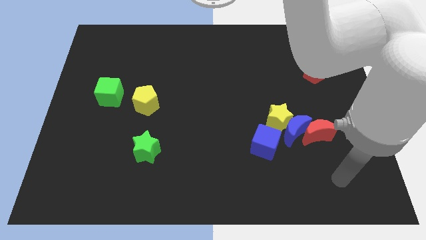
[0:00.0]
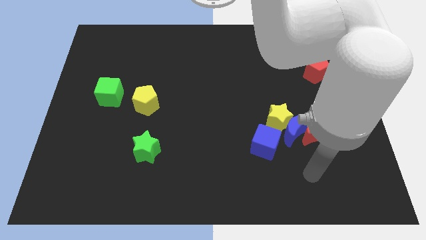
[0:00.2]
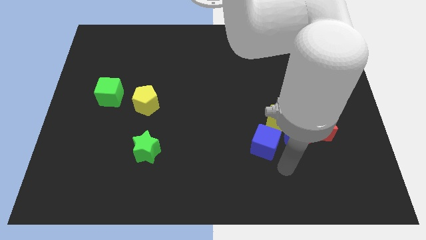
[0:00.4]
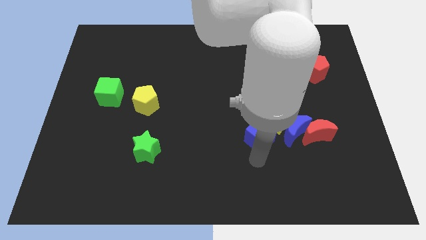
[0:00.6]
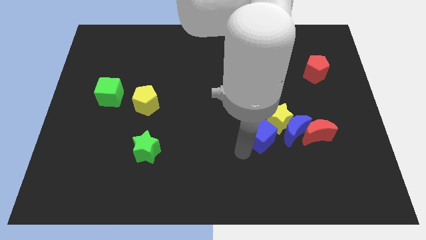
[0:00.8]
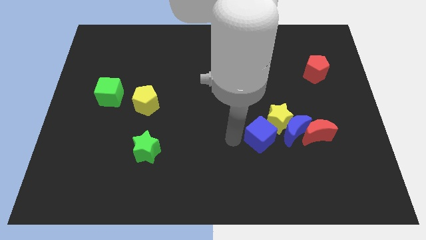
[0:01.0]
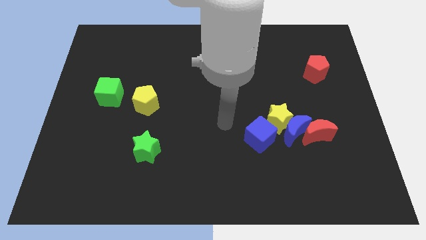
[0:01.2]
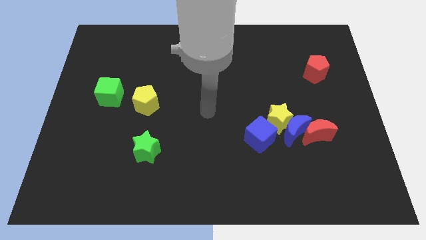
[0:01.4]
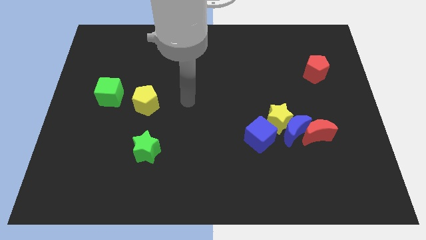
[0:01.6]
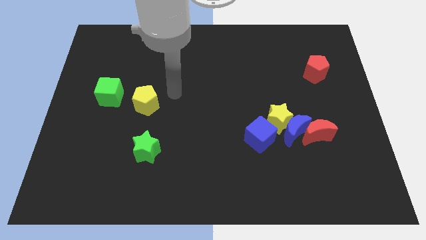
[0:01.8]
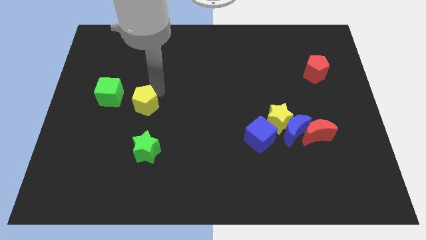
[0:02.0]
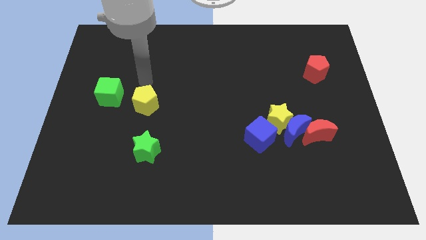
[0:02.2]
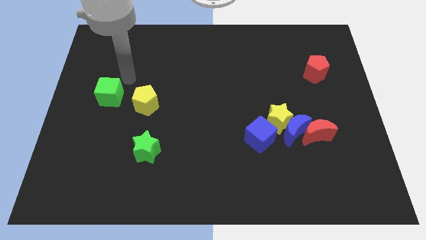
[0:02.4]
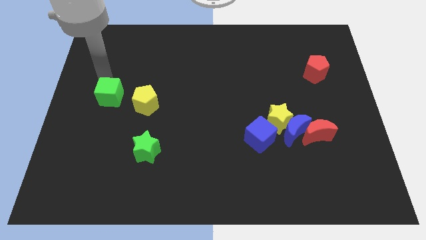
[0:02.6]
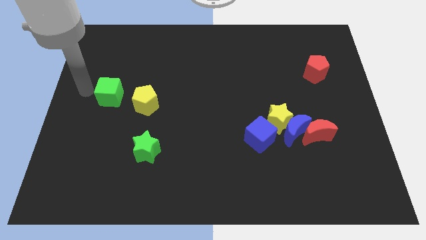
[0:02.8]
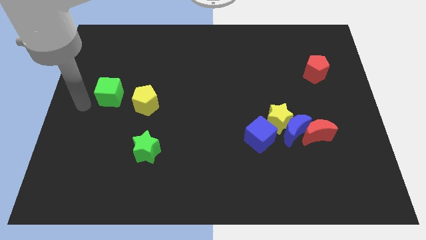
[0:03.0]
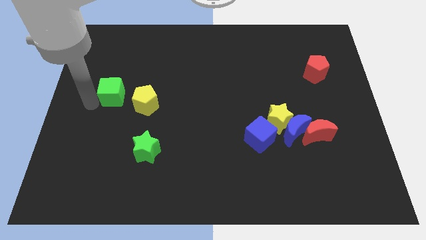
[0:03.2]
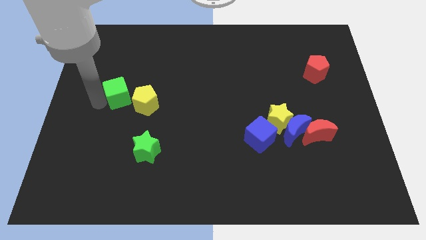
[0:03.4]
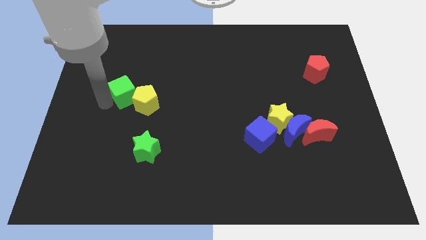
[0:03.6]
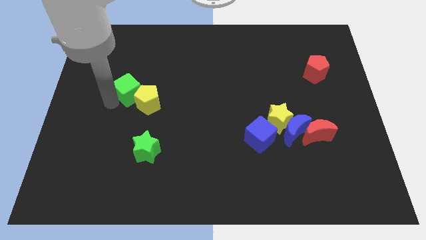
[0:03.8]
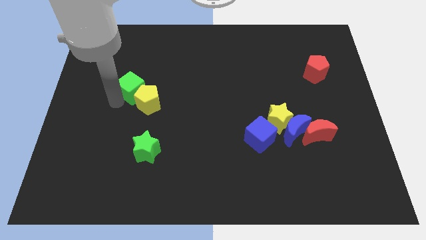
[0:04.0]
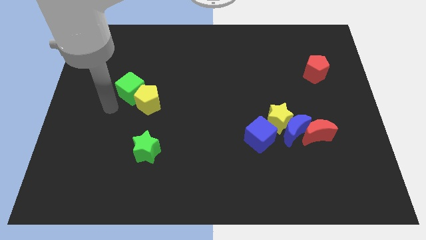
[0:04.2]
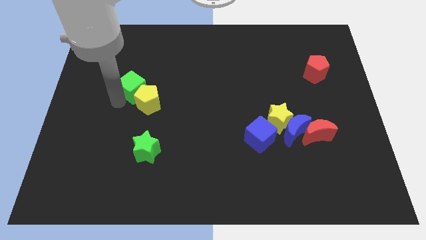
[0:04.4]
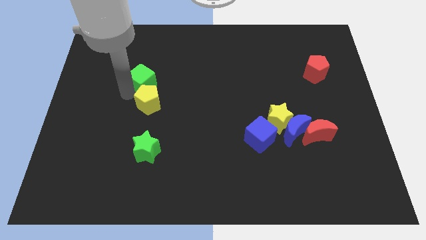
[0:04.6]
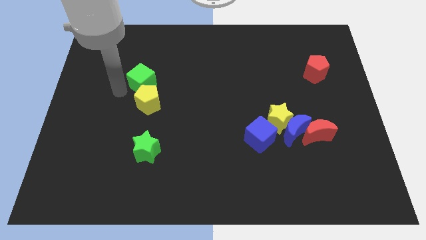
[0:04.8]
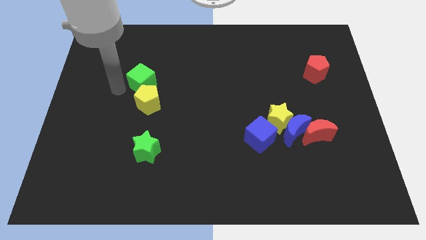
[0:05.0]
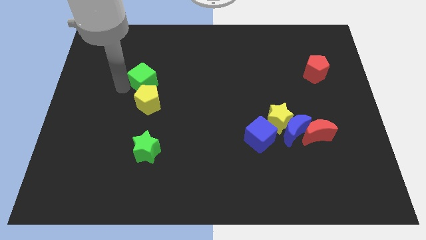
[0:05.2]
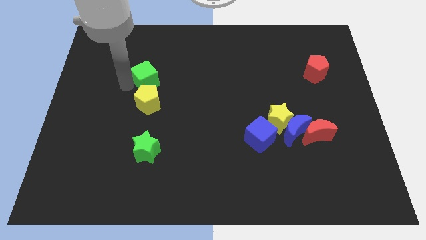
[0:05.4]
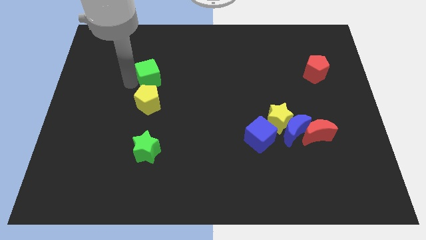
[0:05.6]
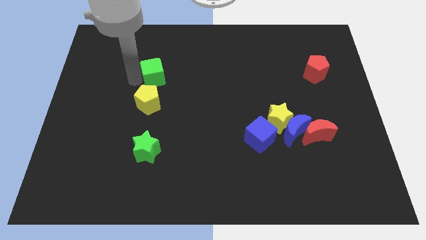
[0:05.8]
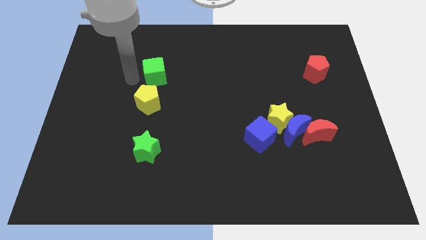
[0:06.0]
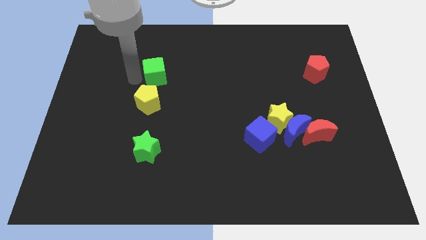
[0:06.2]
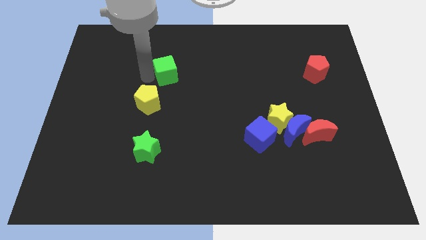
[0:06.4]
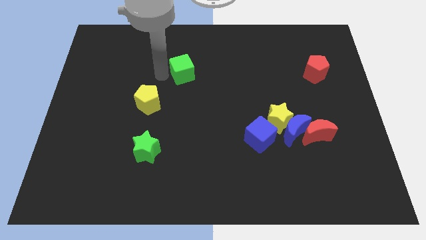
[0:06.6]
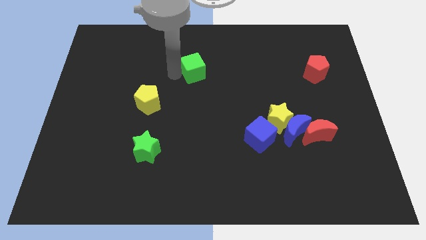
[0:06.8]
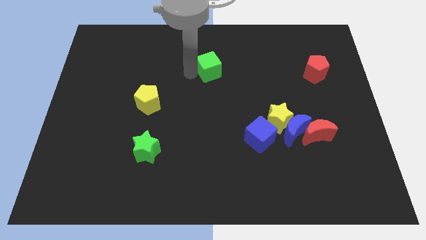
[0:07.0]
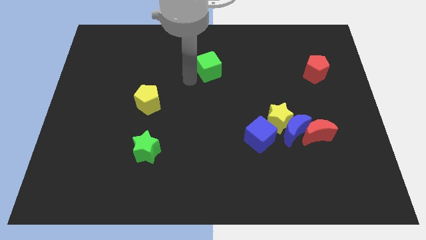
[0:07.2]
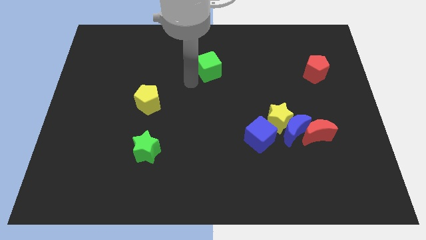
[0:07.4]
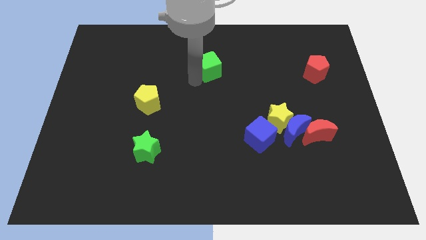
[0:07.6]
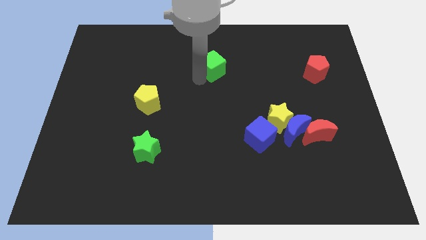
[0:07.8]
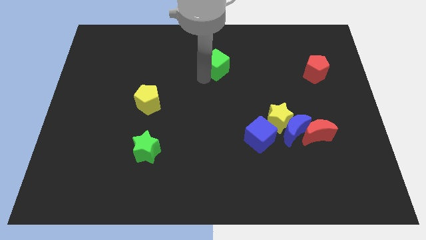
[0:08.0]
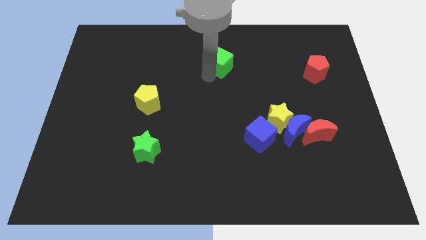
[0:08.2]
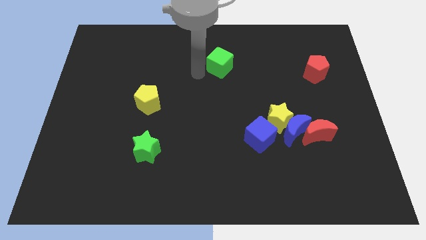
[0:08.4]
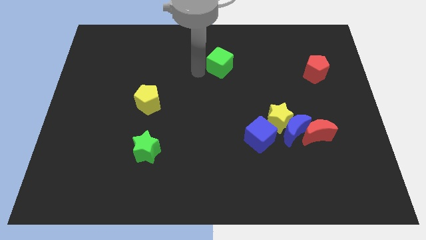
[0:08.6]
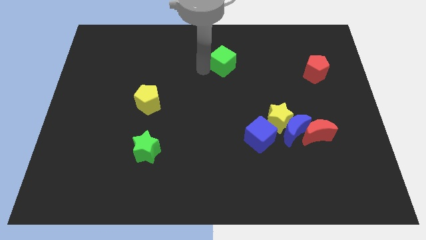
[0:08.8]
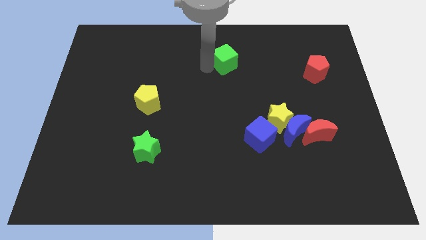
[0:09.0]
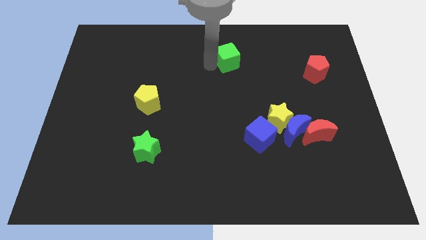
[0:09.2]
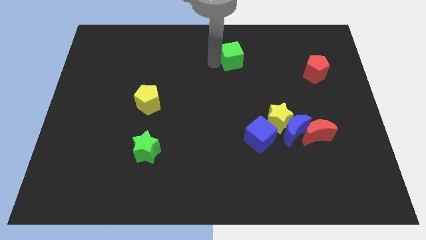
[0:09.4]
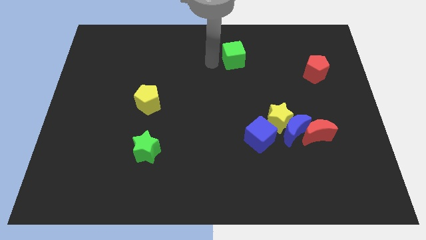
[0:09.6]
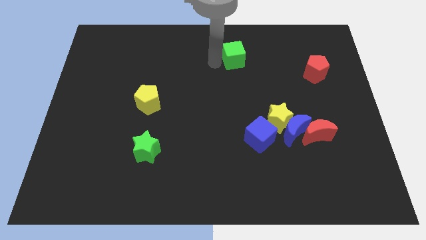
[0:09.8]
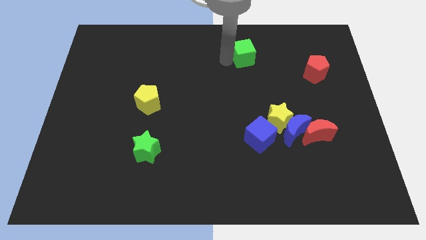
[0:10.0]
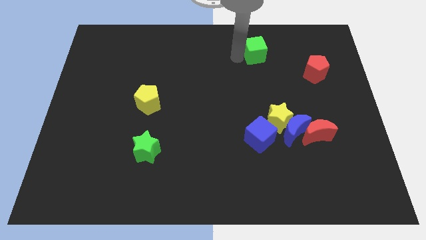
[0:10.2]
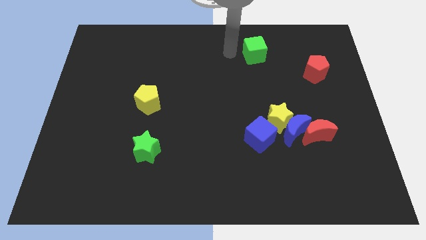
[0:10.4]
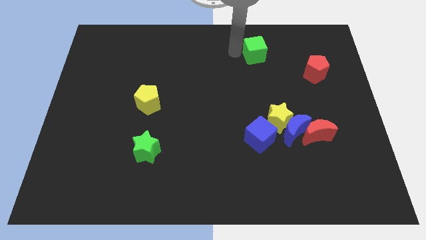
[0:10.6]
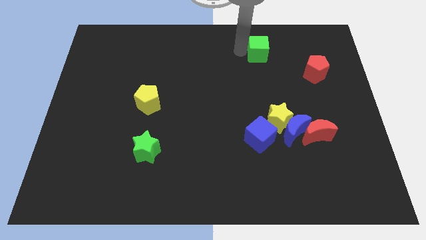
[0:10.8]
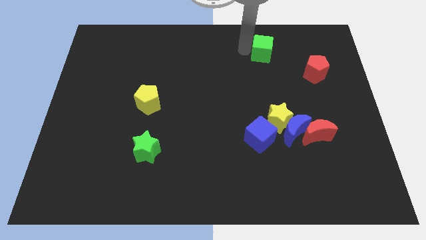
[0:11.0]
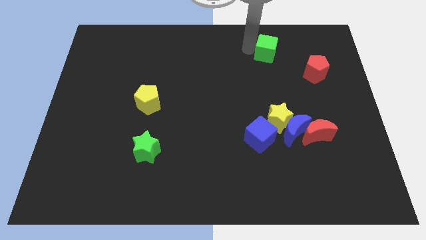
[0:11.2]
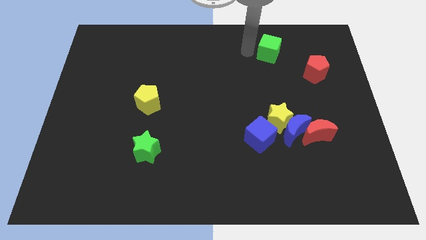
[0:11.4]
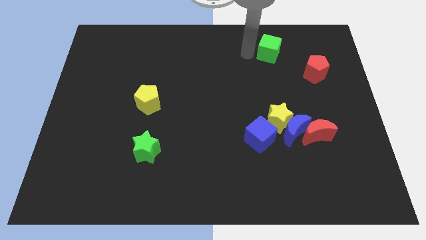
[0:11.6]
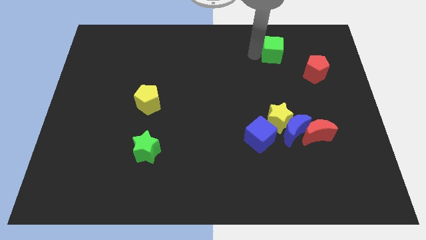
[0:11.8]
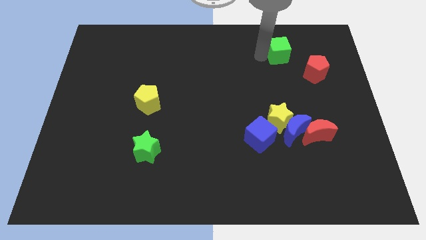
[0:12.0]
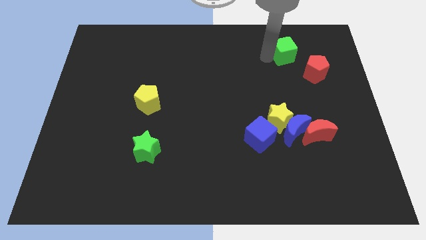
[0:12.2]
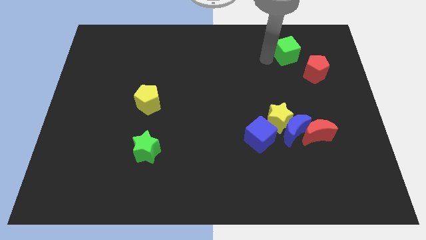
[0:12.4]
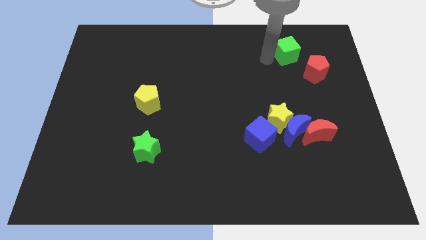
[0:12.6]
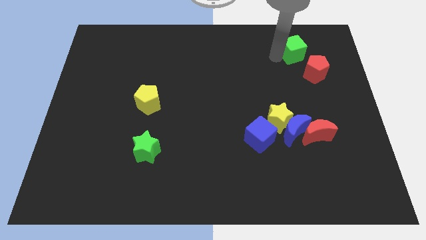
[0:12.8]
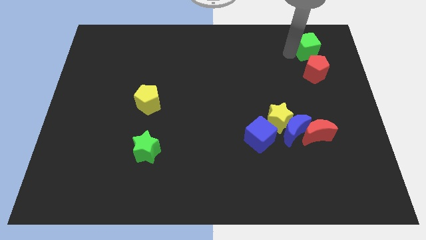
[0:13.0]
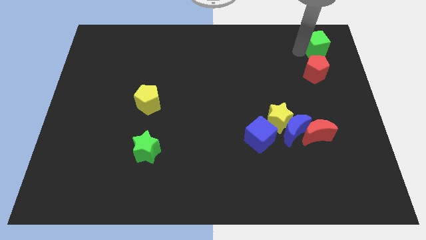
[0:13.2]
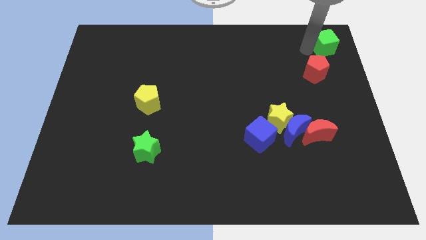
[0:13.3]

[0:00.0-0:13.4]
move the green cube to the top right of the board
